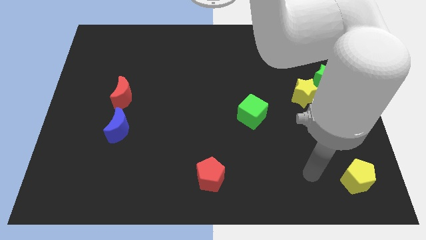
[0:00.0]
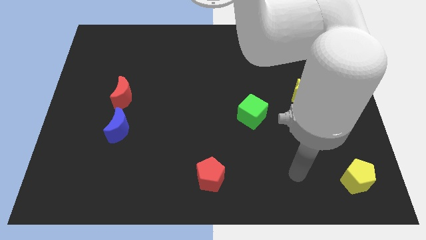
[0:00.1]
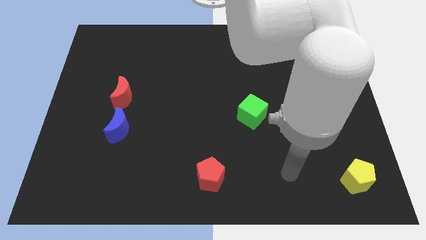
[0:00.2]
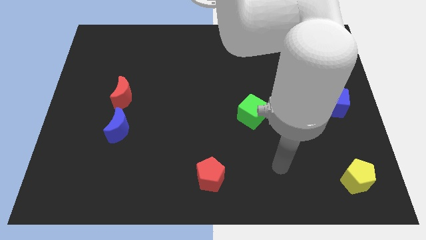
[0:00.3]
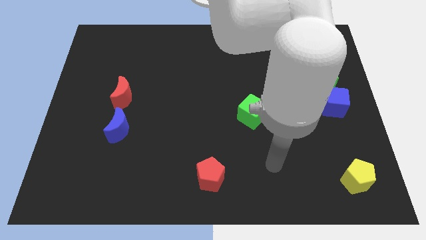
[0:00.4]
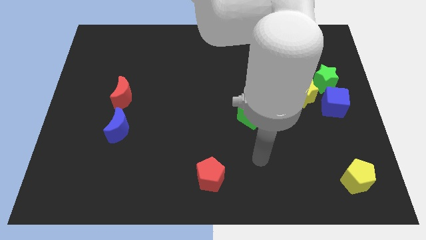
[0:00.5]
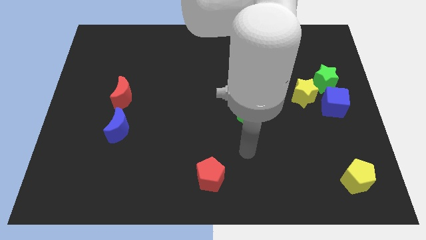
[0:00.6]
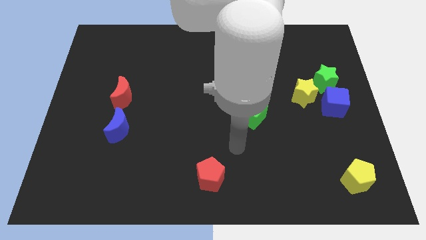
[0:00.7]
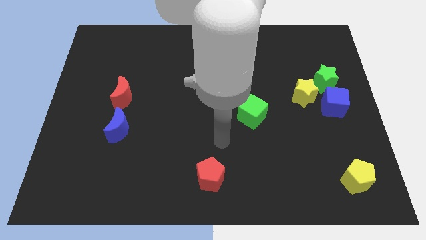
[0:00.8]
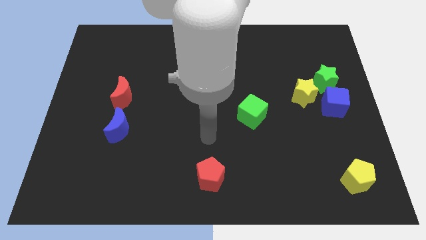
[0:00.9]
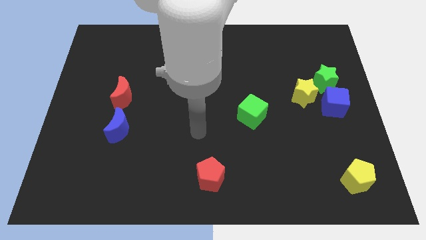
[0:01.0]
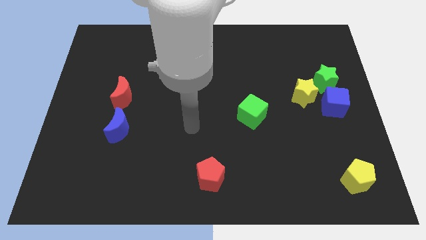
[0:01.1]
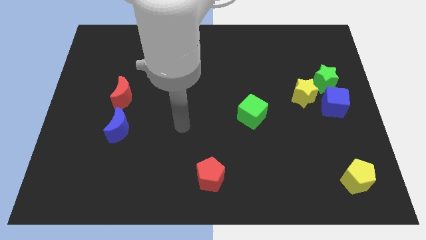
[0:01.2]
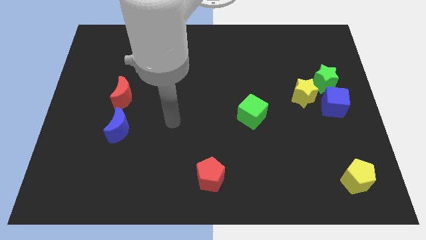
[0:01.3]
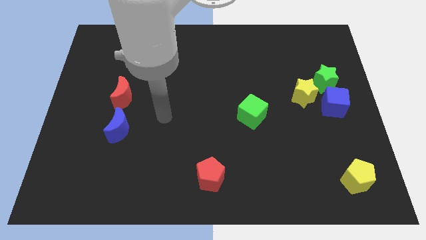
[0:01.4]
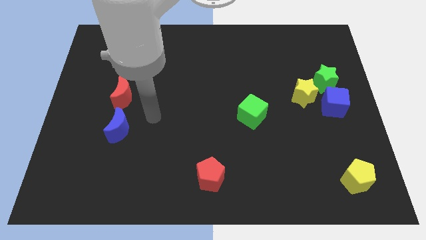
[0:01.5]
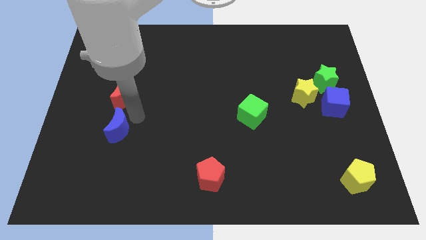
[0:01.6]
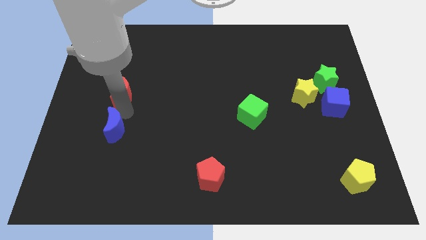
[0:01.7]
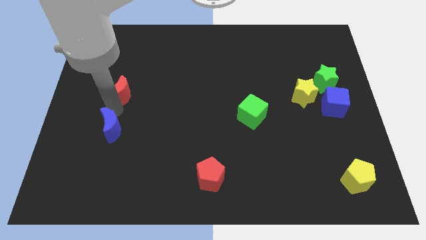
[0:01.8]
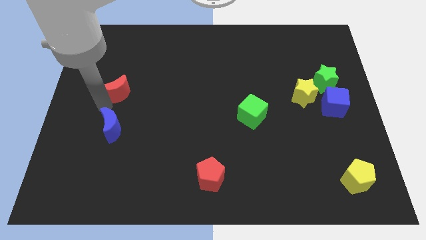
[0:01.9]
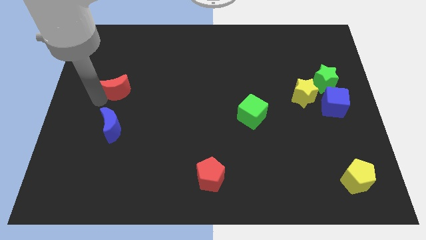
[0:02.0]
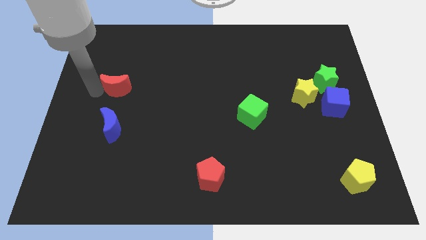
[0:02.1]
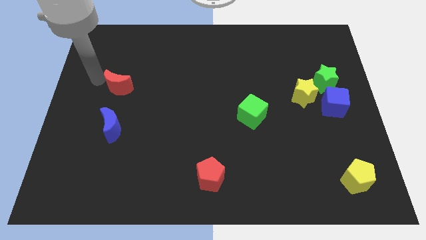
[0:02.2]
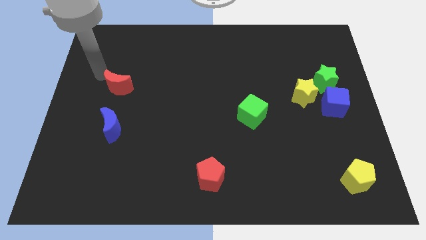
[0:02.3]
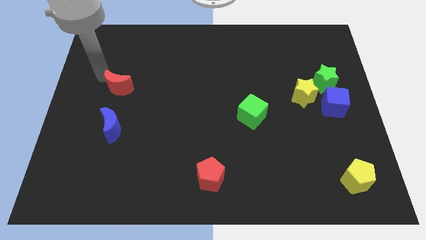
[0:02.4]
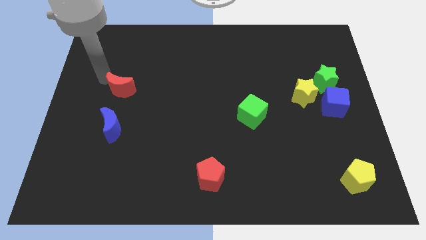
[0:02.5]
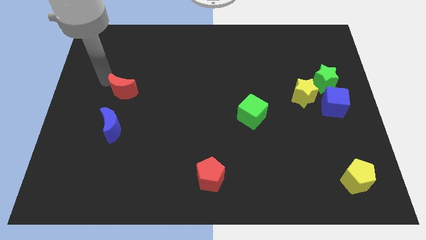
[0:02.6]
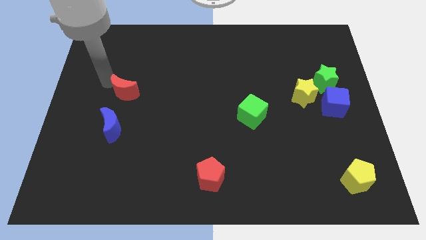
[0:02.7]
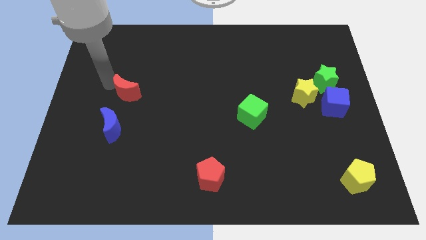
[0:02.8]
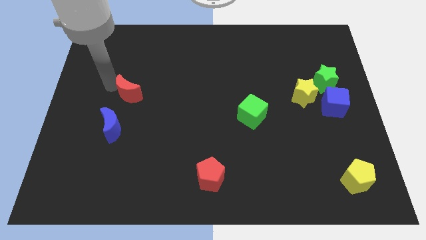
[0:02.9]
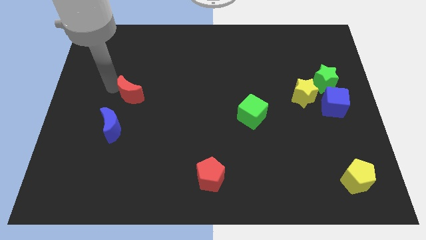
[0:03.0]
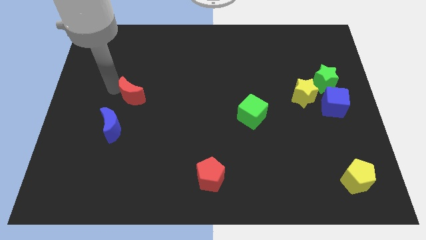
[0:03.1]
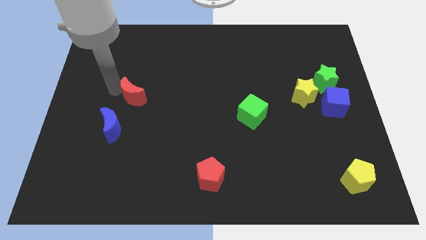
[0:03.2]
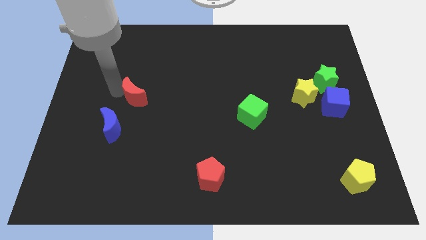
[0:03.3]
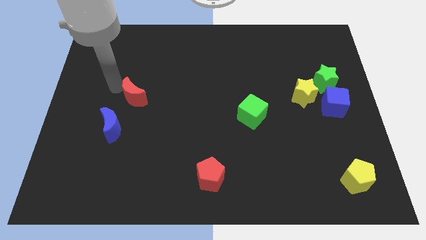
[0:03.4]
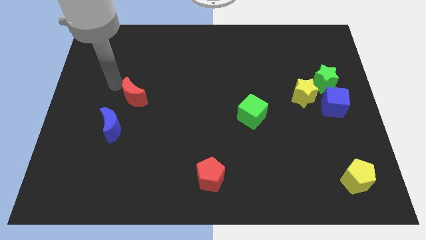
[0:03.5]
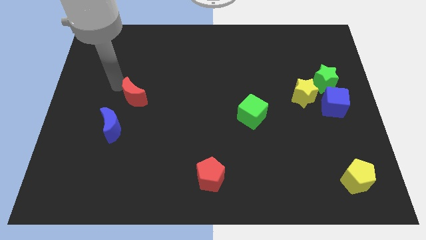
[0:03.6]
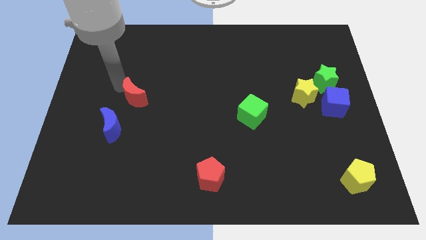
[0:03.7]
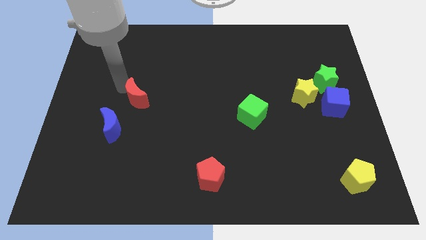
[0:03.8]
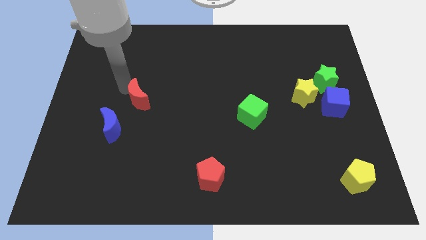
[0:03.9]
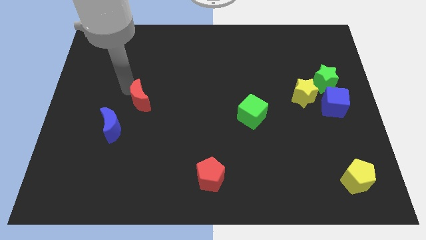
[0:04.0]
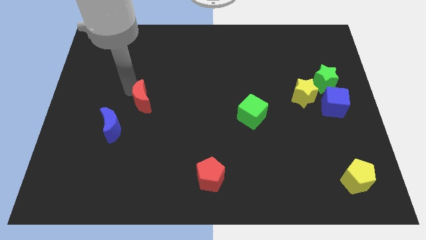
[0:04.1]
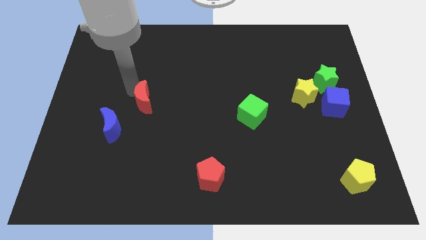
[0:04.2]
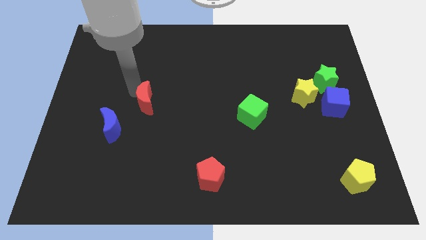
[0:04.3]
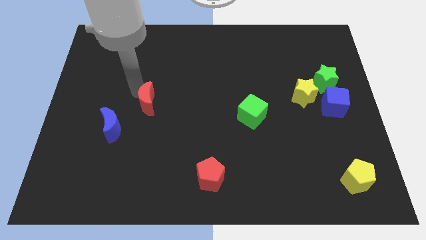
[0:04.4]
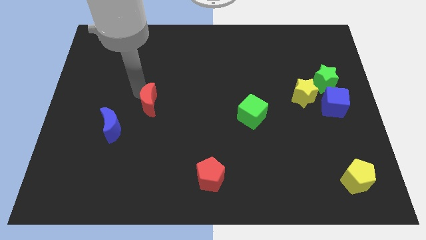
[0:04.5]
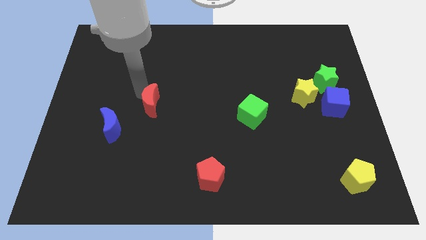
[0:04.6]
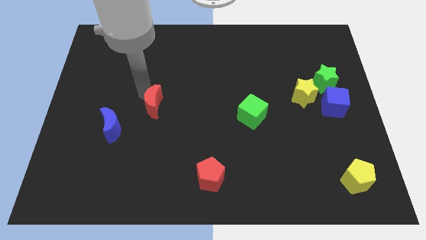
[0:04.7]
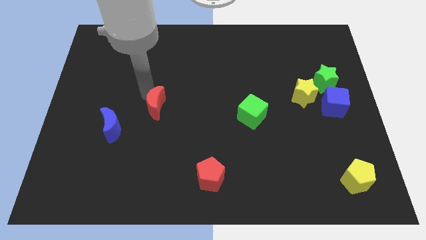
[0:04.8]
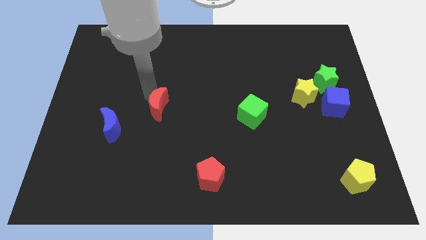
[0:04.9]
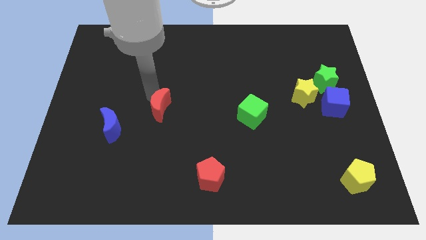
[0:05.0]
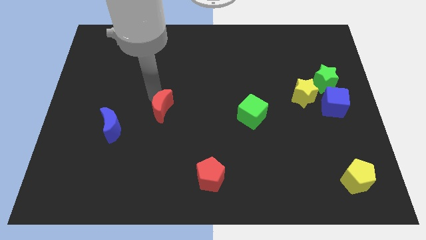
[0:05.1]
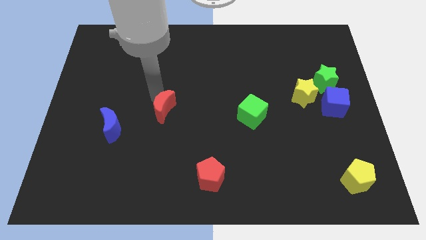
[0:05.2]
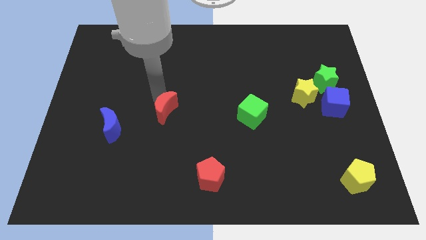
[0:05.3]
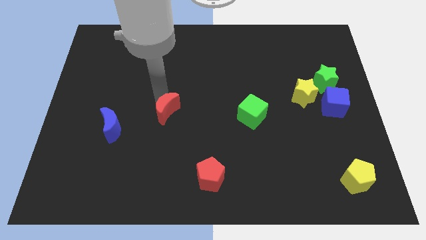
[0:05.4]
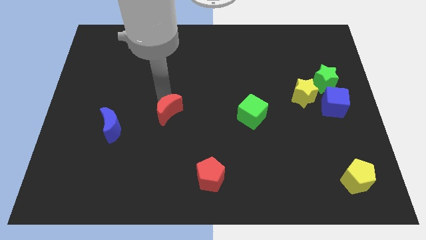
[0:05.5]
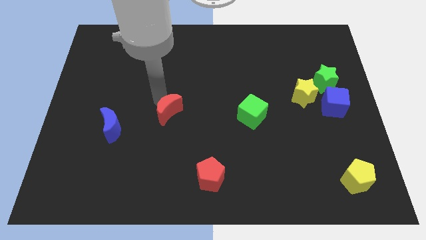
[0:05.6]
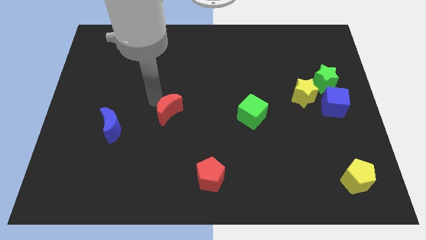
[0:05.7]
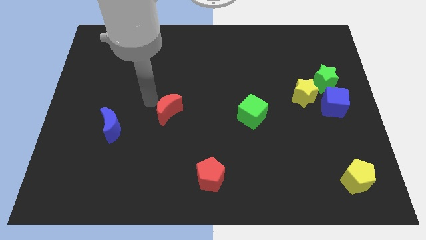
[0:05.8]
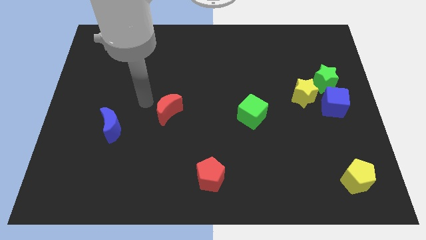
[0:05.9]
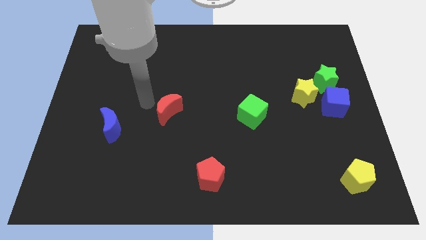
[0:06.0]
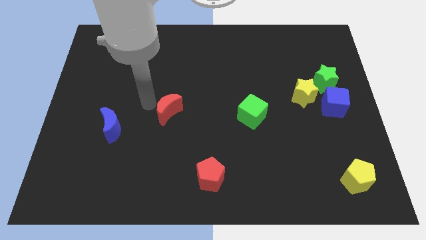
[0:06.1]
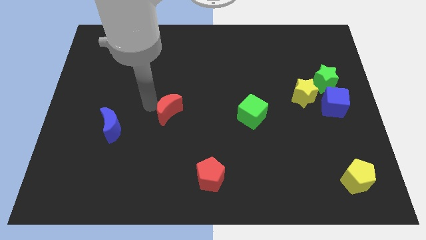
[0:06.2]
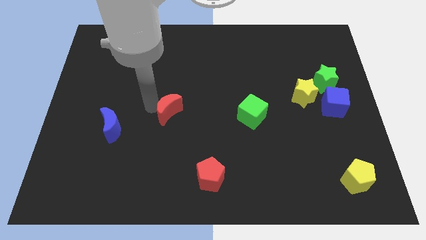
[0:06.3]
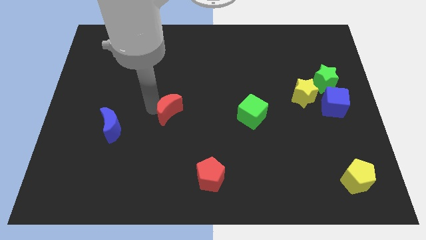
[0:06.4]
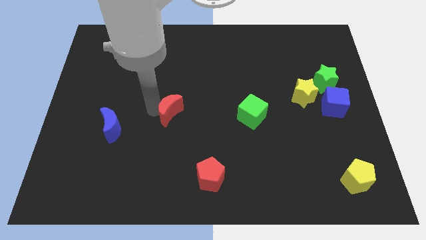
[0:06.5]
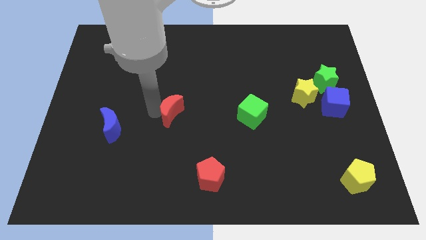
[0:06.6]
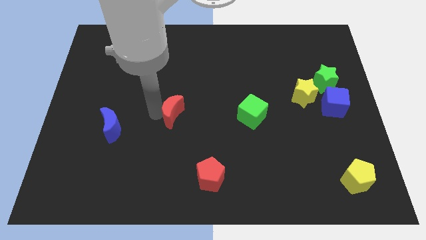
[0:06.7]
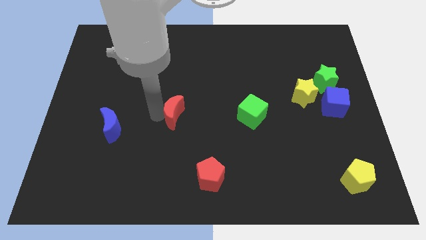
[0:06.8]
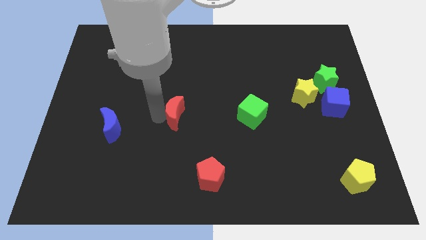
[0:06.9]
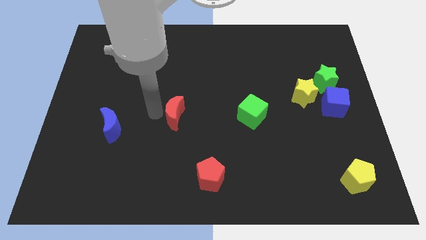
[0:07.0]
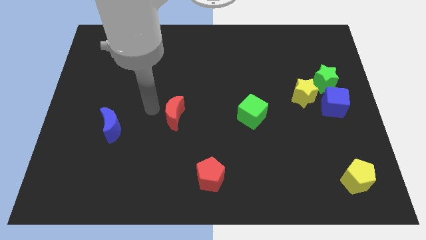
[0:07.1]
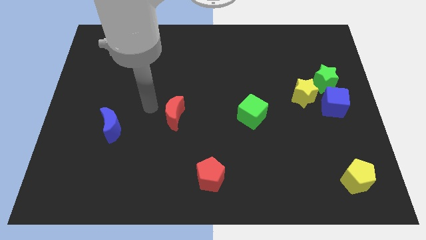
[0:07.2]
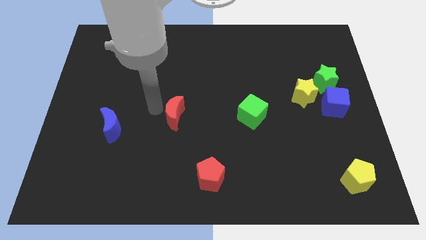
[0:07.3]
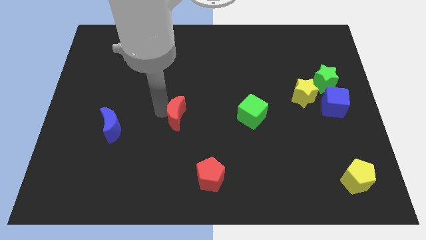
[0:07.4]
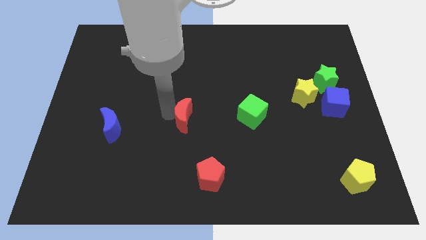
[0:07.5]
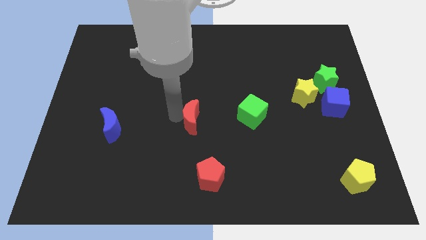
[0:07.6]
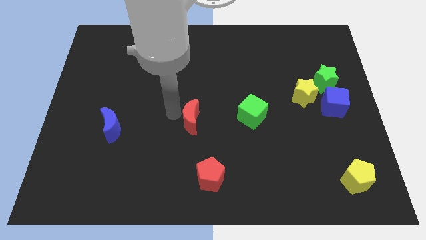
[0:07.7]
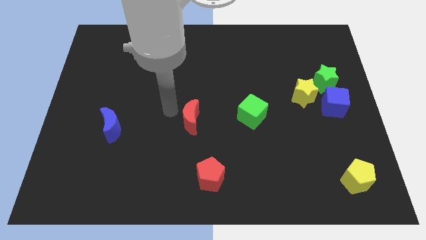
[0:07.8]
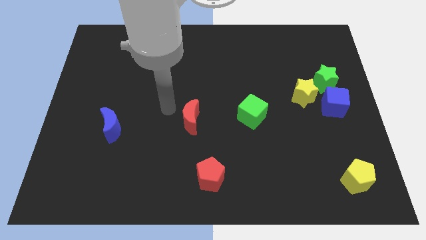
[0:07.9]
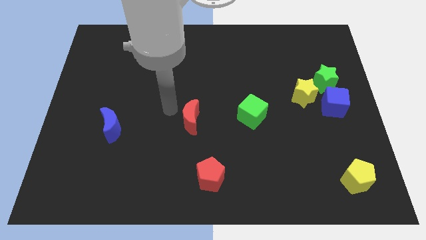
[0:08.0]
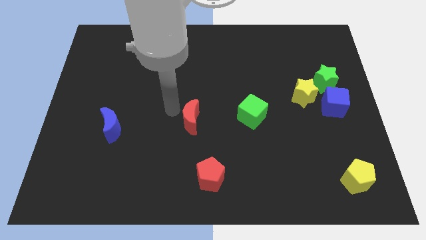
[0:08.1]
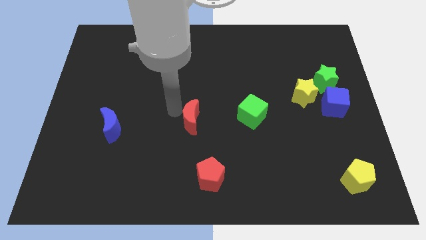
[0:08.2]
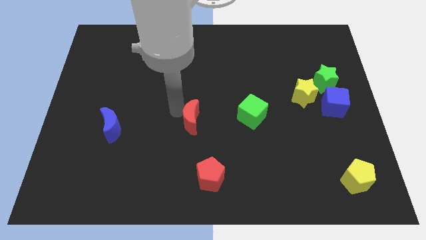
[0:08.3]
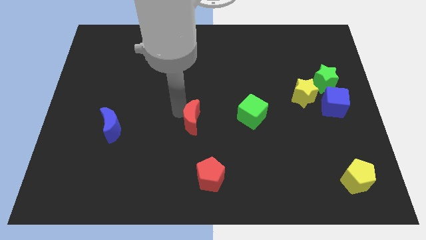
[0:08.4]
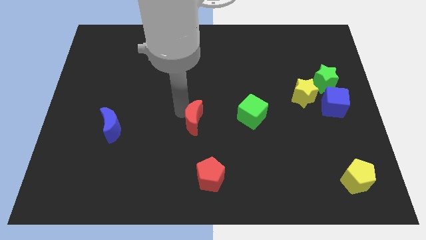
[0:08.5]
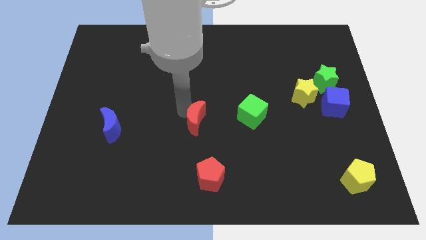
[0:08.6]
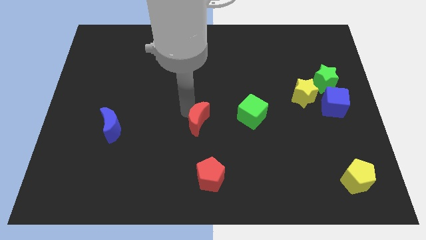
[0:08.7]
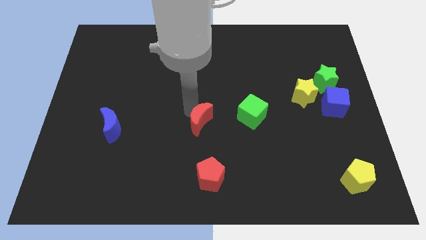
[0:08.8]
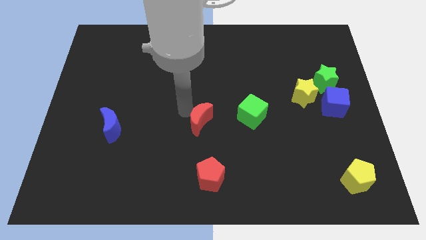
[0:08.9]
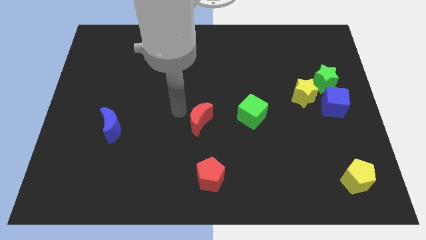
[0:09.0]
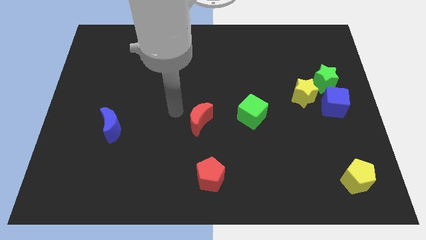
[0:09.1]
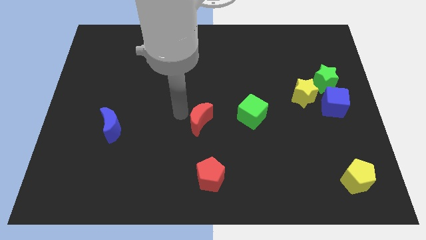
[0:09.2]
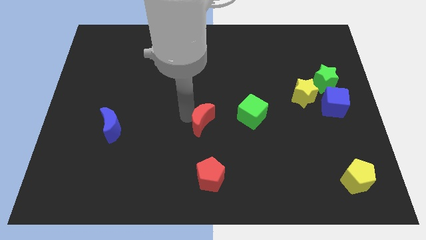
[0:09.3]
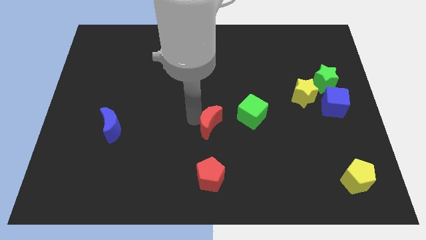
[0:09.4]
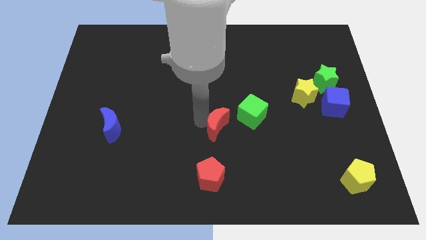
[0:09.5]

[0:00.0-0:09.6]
push the red moon to the bottom left side of the green cube
